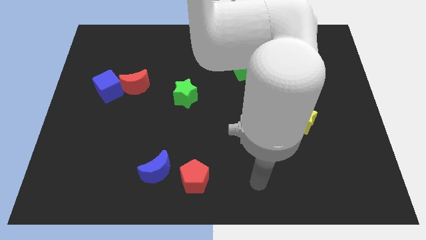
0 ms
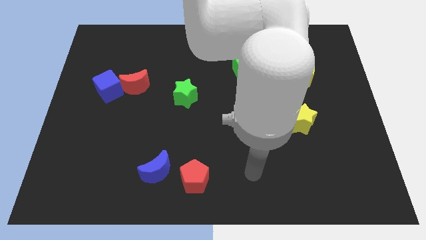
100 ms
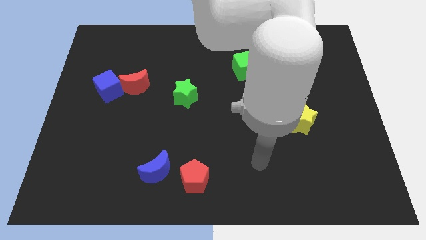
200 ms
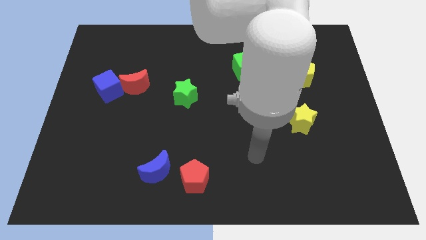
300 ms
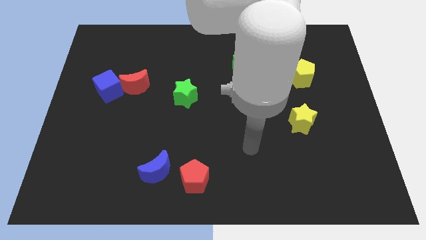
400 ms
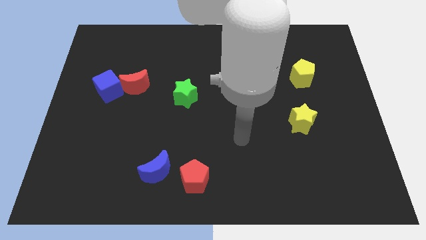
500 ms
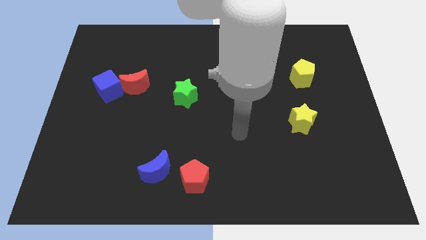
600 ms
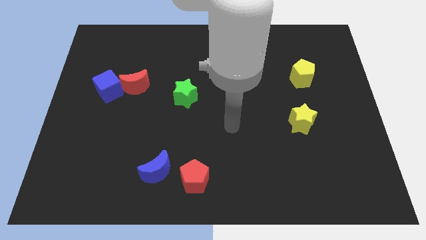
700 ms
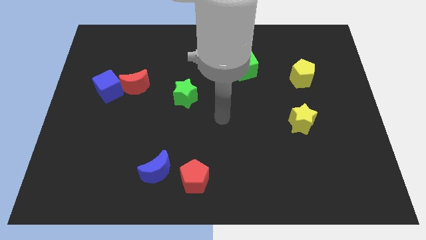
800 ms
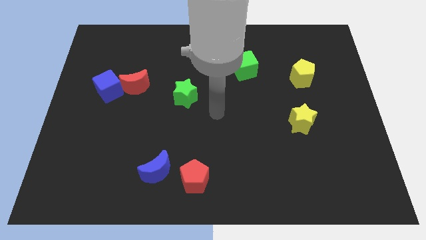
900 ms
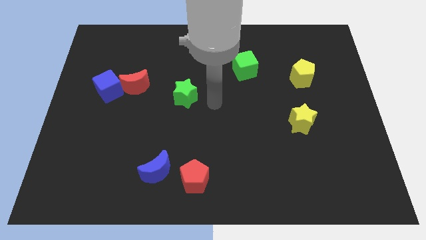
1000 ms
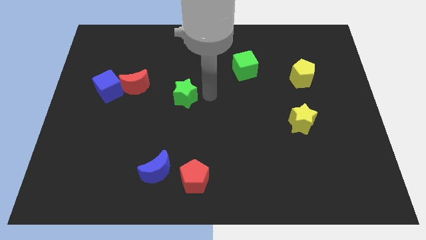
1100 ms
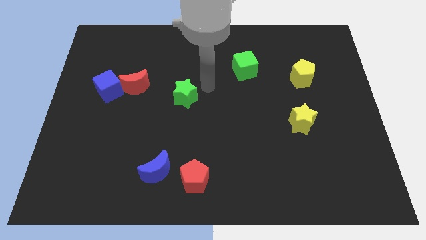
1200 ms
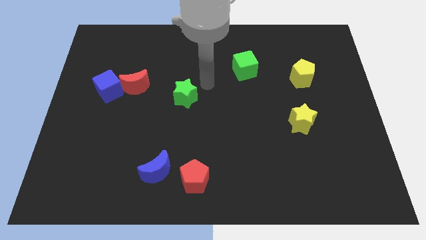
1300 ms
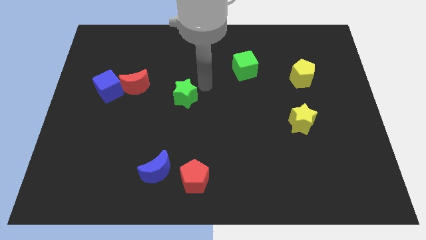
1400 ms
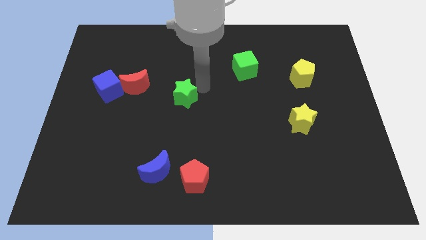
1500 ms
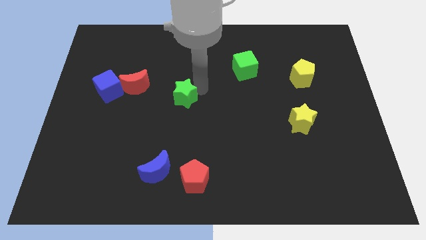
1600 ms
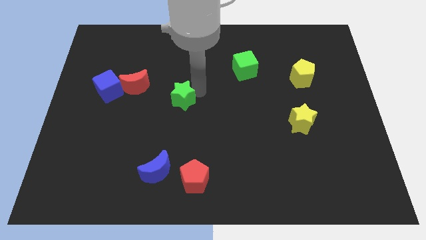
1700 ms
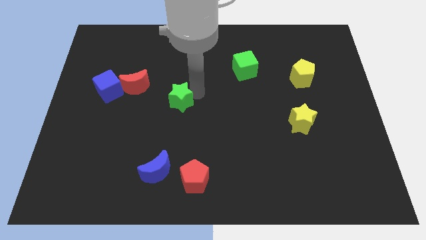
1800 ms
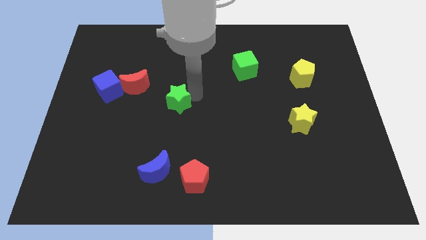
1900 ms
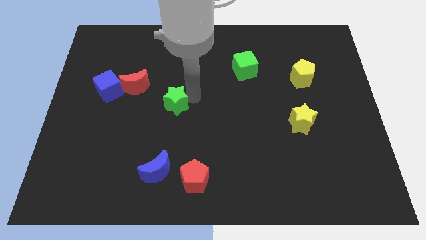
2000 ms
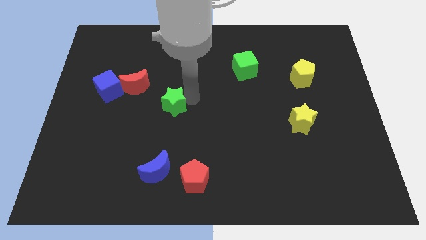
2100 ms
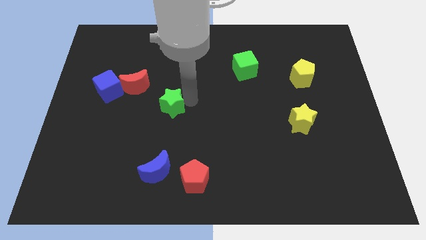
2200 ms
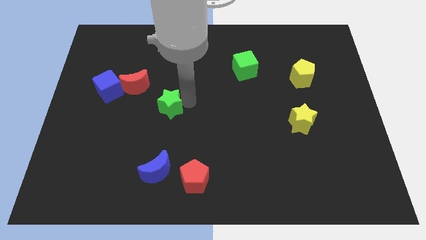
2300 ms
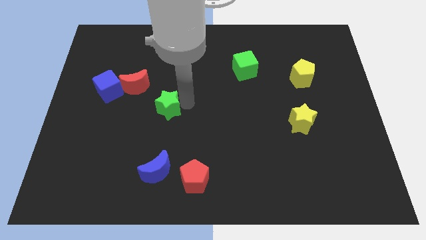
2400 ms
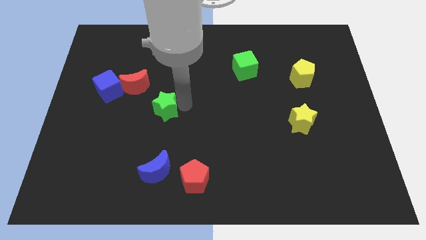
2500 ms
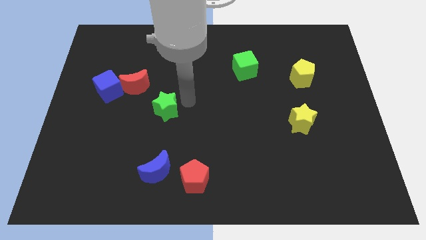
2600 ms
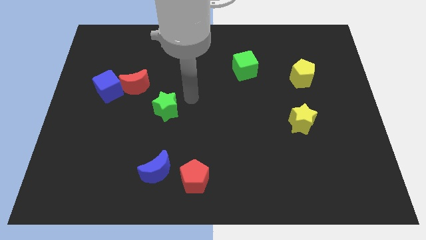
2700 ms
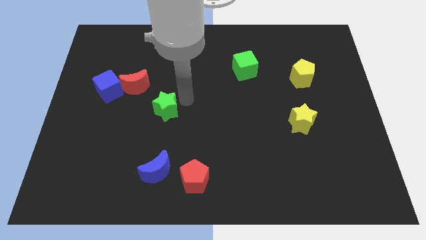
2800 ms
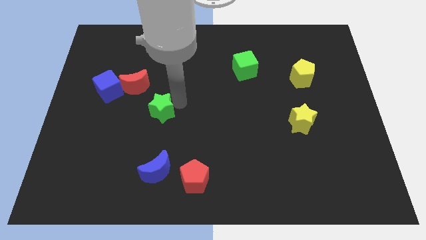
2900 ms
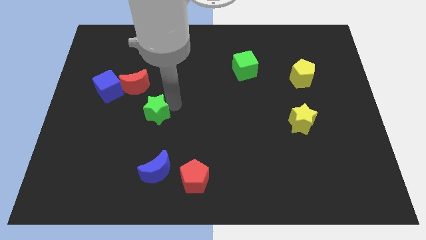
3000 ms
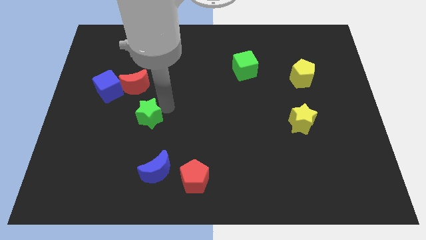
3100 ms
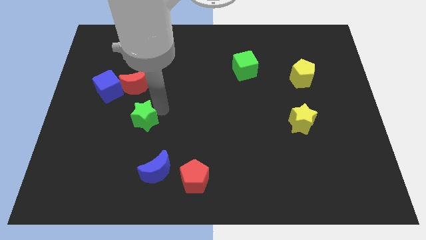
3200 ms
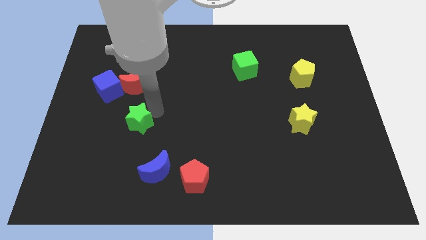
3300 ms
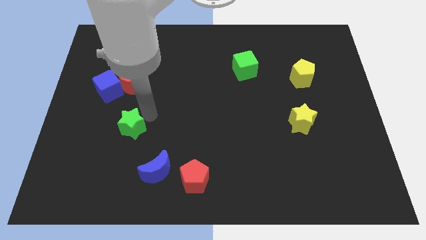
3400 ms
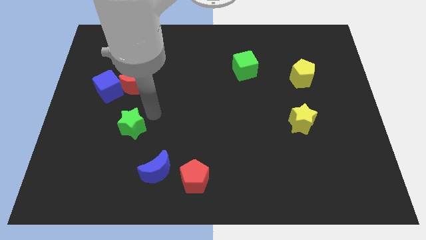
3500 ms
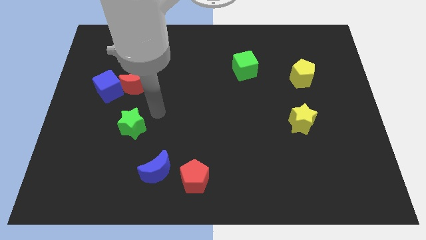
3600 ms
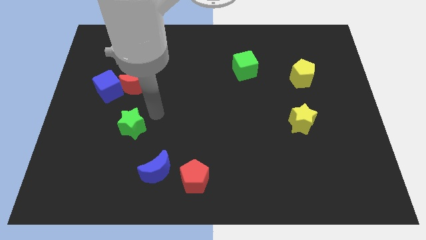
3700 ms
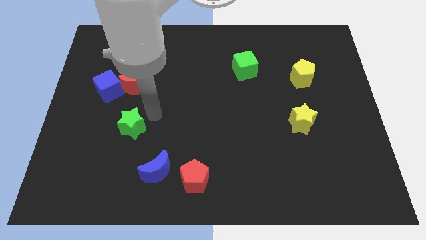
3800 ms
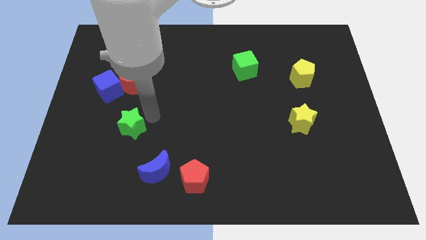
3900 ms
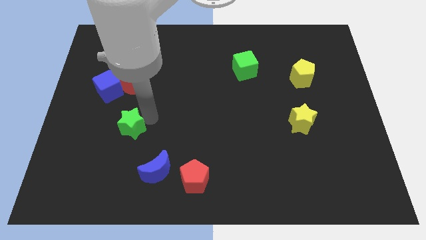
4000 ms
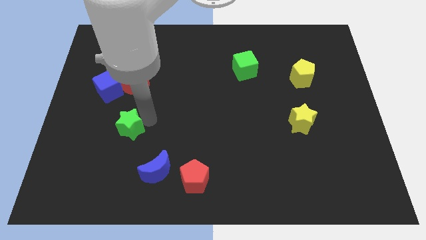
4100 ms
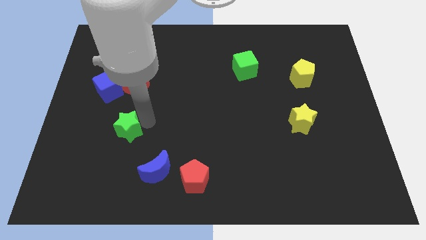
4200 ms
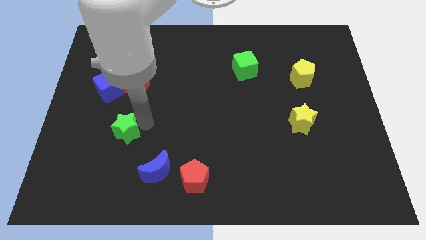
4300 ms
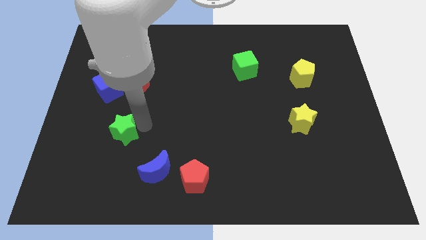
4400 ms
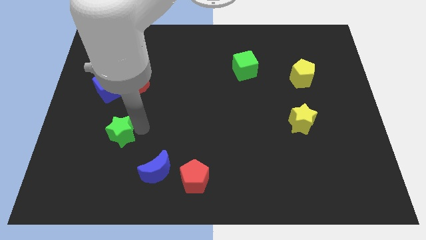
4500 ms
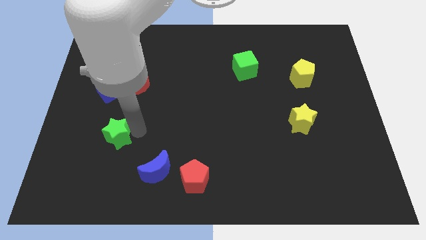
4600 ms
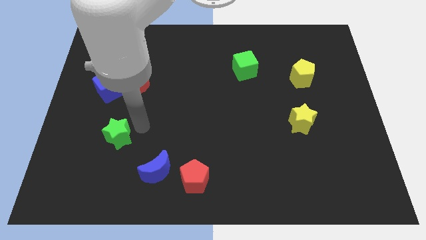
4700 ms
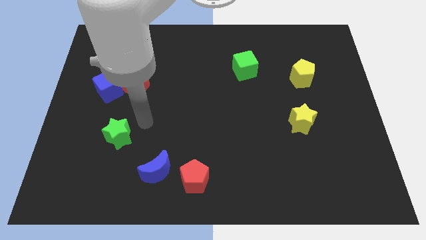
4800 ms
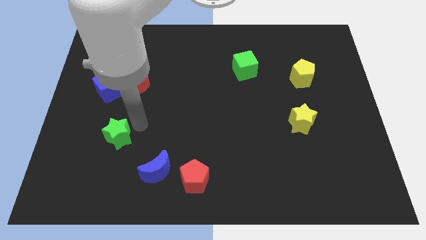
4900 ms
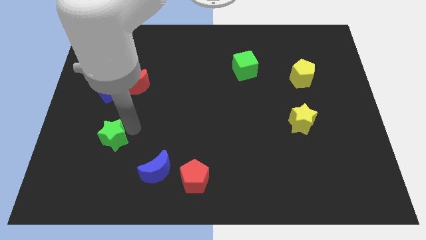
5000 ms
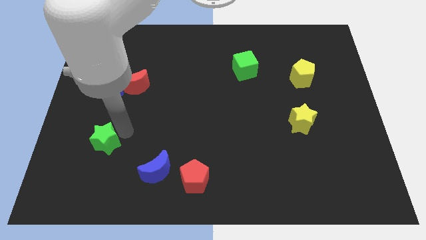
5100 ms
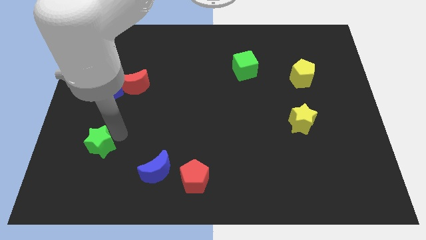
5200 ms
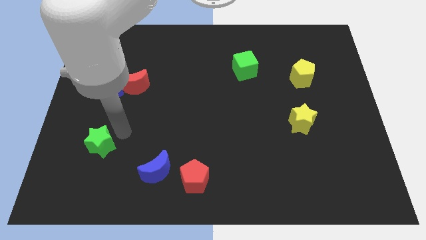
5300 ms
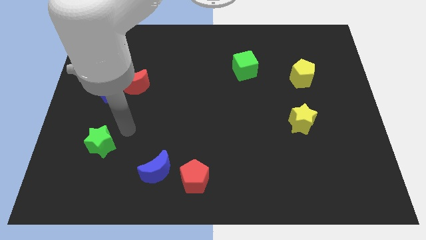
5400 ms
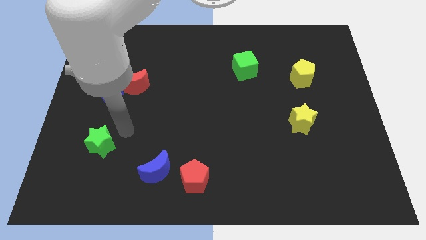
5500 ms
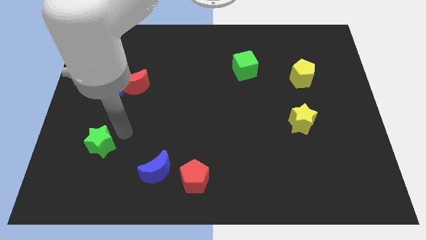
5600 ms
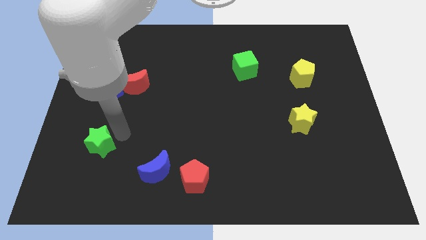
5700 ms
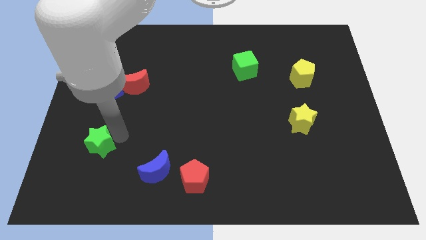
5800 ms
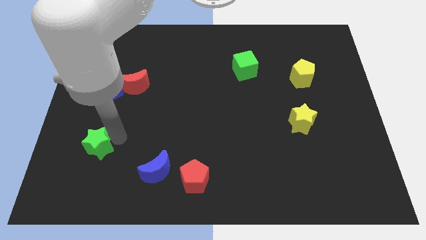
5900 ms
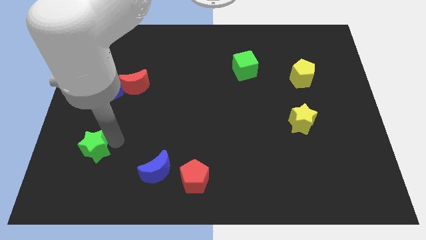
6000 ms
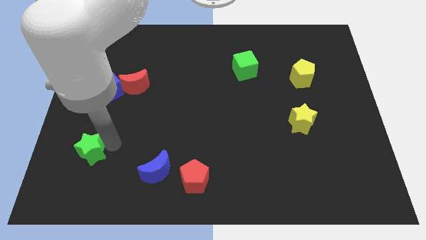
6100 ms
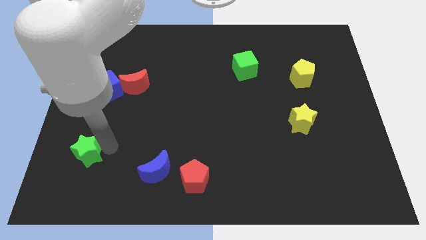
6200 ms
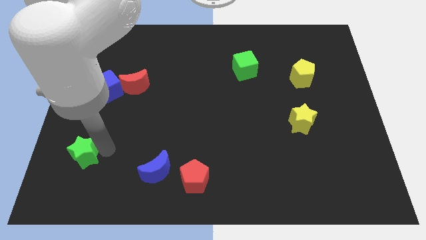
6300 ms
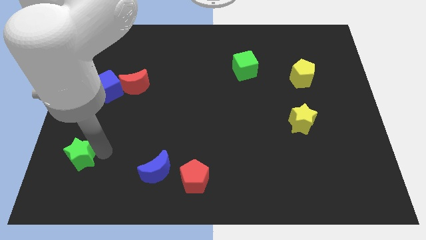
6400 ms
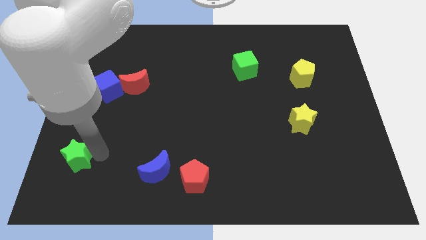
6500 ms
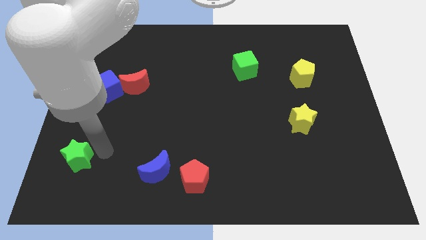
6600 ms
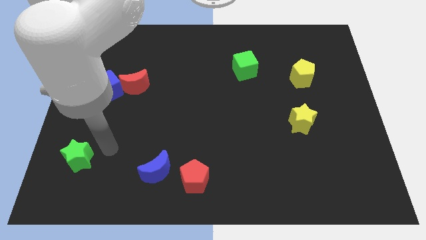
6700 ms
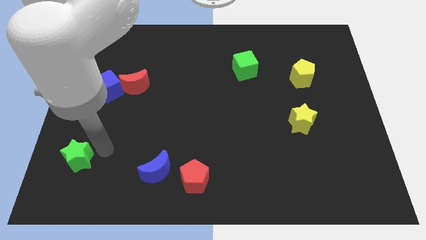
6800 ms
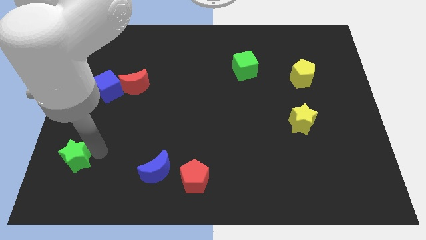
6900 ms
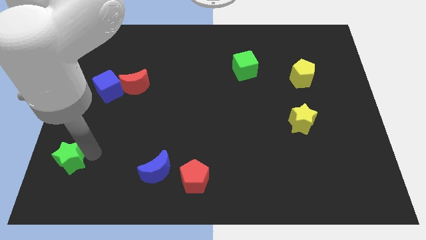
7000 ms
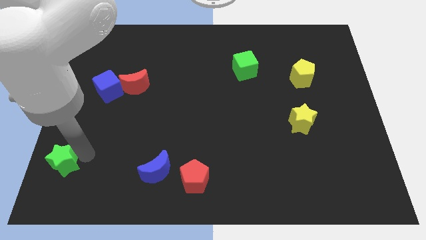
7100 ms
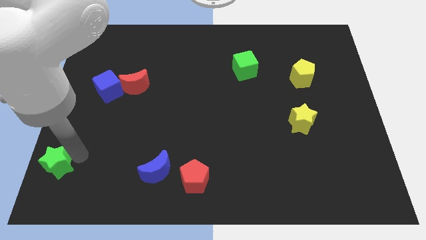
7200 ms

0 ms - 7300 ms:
put the green star to the bottom left
